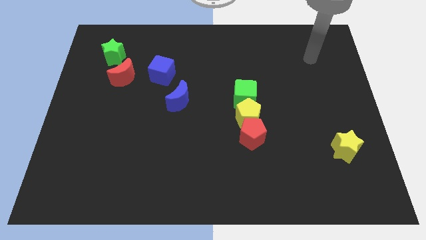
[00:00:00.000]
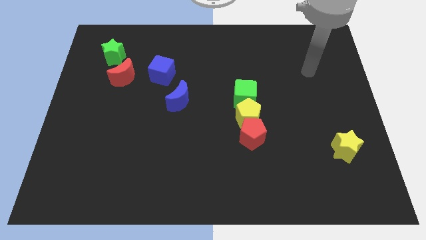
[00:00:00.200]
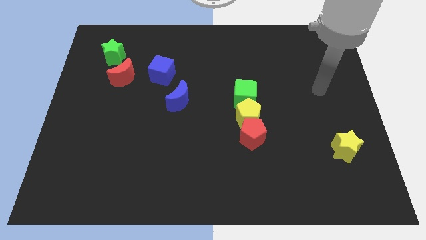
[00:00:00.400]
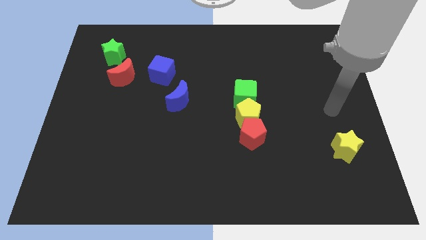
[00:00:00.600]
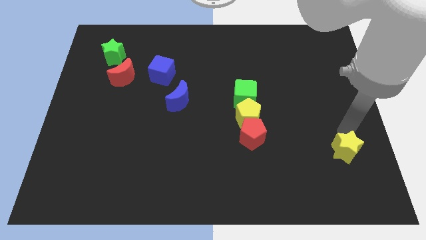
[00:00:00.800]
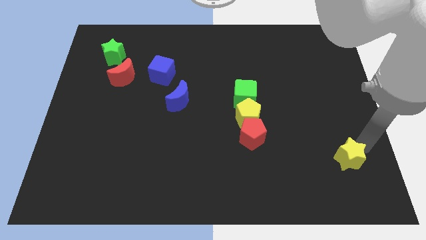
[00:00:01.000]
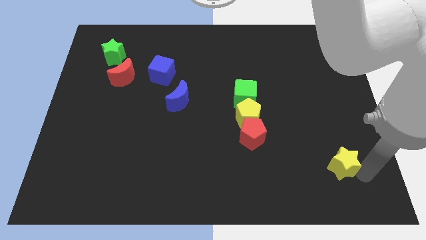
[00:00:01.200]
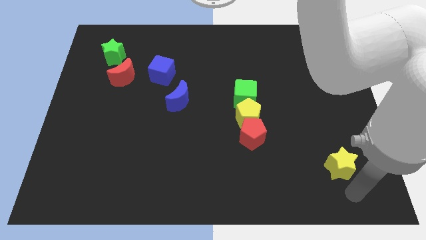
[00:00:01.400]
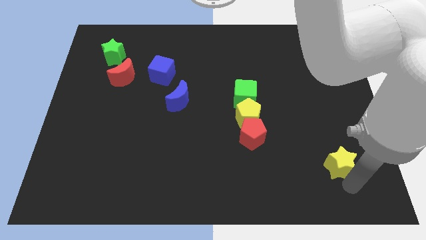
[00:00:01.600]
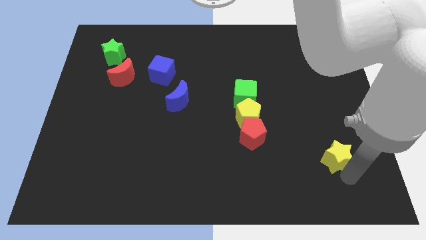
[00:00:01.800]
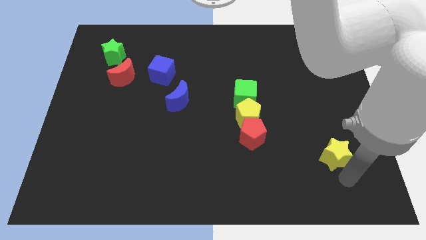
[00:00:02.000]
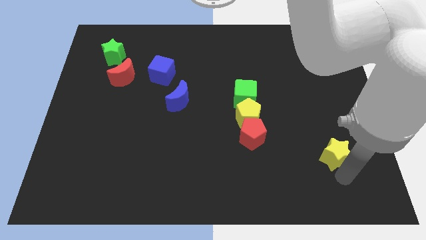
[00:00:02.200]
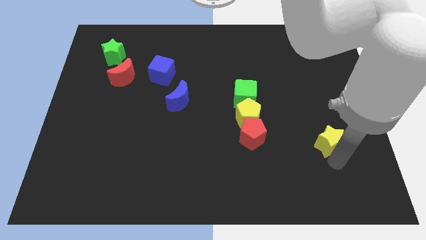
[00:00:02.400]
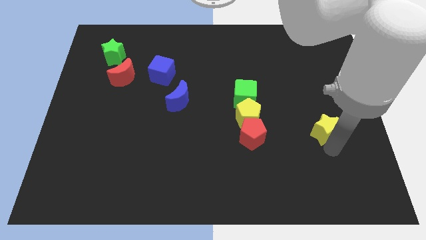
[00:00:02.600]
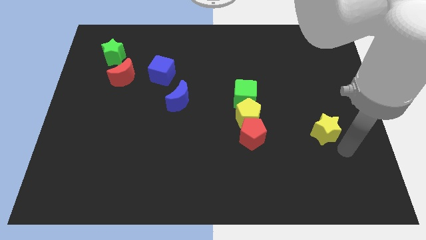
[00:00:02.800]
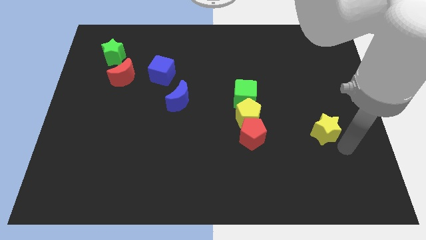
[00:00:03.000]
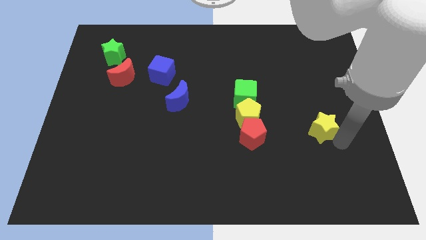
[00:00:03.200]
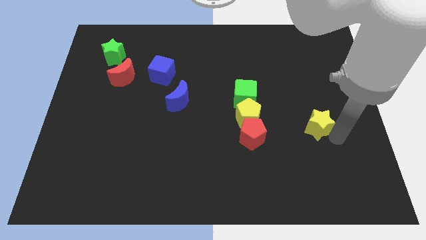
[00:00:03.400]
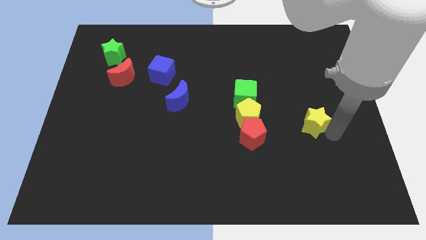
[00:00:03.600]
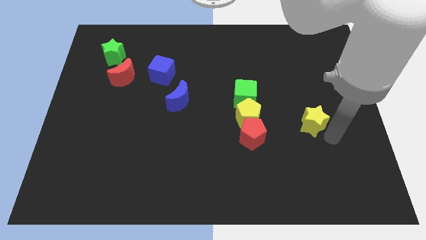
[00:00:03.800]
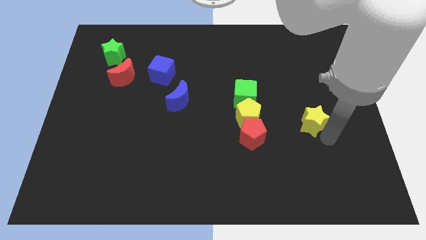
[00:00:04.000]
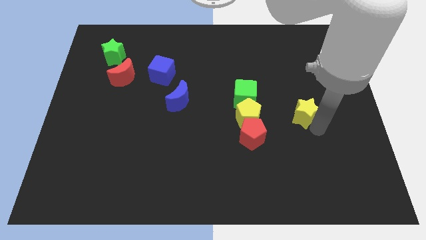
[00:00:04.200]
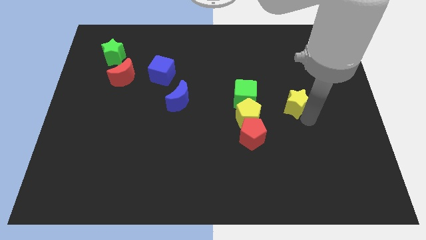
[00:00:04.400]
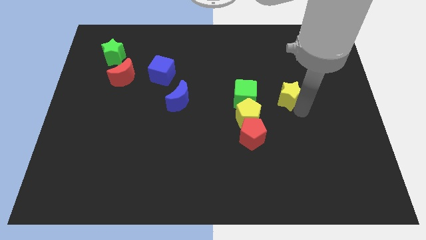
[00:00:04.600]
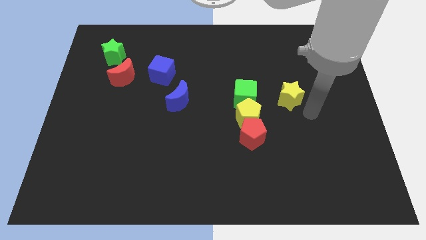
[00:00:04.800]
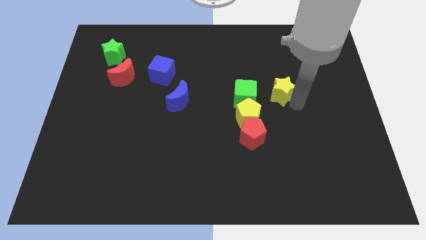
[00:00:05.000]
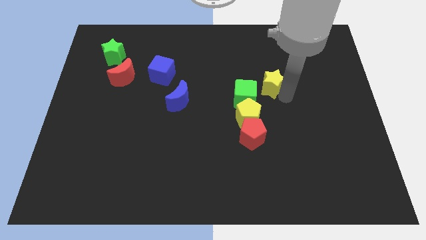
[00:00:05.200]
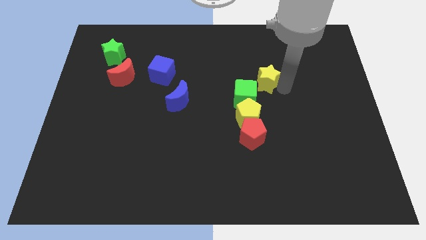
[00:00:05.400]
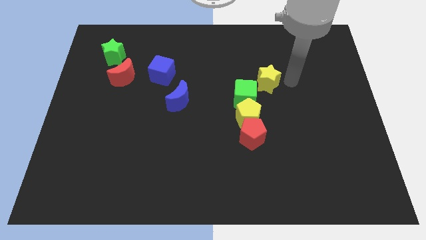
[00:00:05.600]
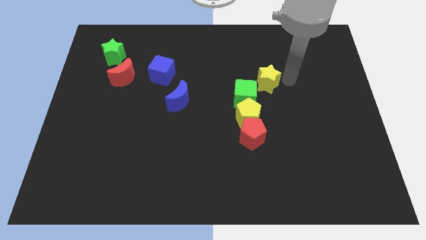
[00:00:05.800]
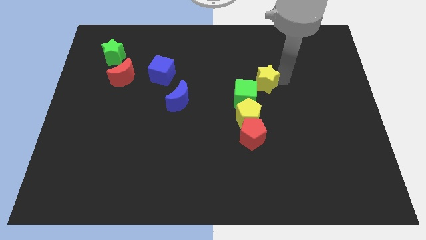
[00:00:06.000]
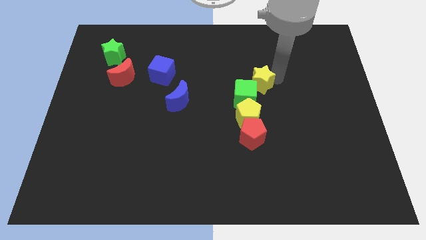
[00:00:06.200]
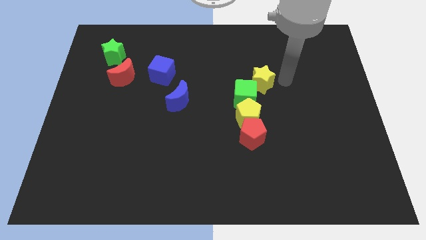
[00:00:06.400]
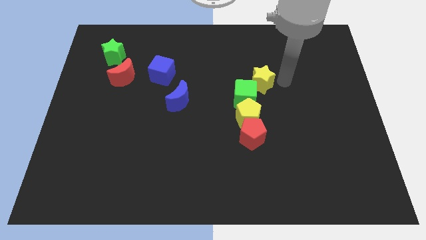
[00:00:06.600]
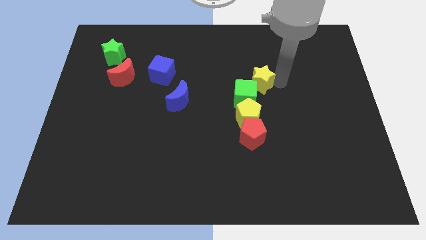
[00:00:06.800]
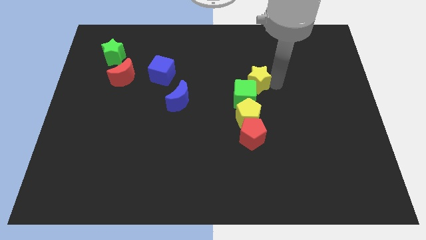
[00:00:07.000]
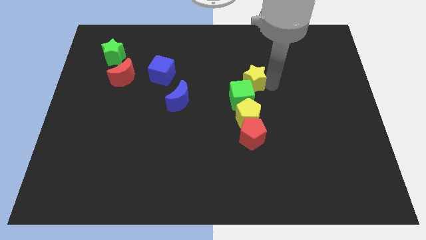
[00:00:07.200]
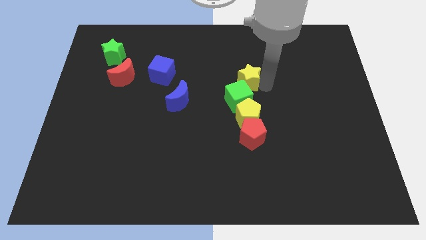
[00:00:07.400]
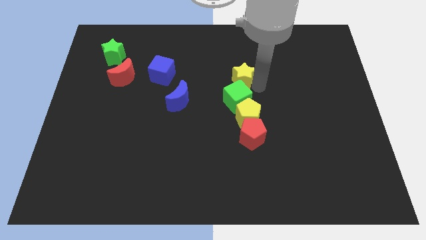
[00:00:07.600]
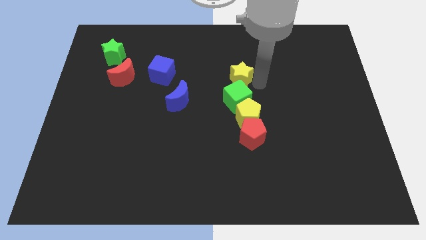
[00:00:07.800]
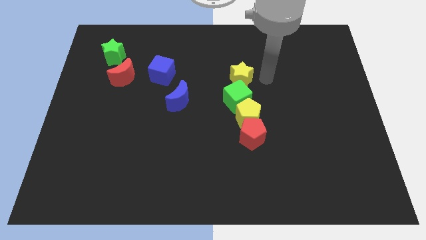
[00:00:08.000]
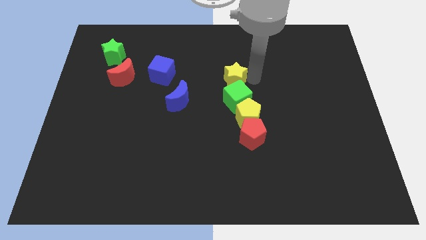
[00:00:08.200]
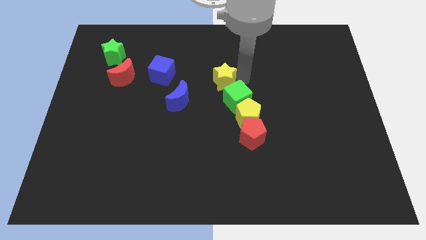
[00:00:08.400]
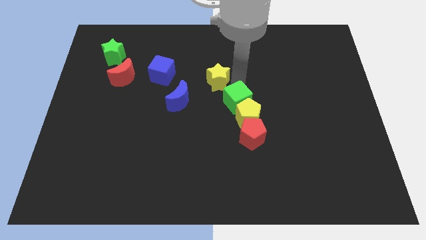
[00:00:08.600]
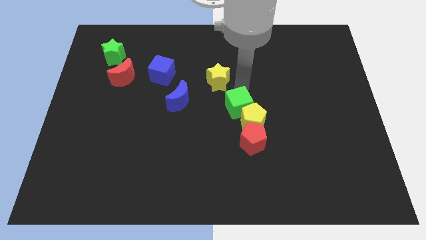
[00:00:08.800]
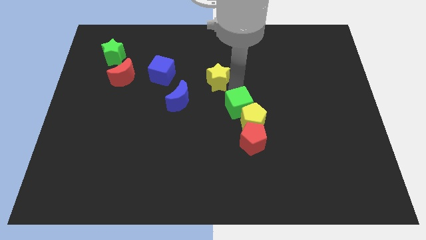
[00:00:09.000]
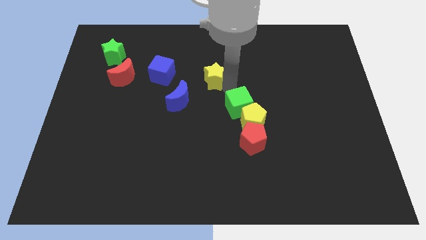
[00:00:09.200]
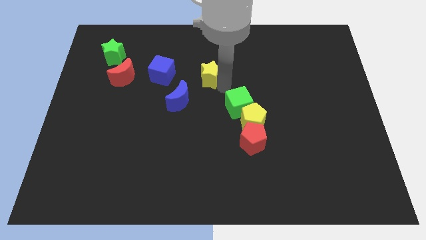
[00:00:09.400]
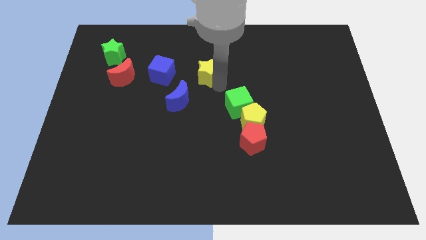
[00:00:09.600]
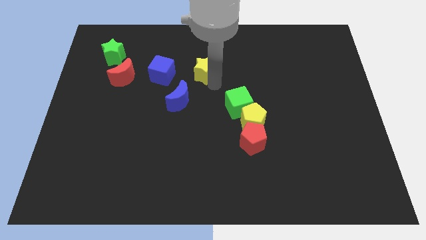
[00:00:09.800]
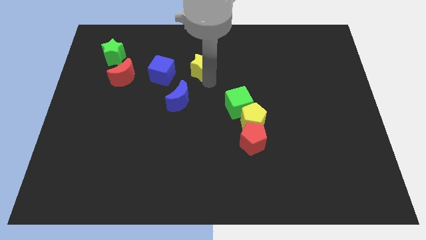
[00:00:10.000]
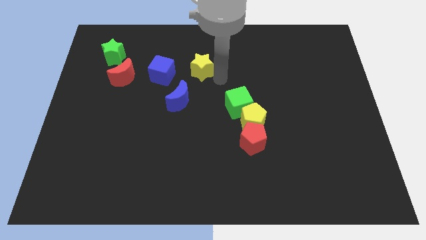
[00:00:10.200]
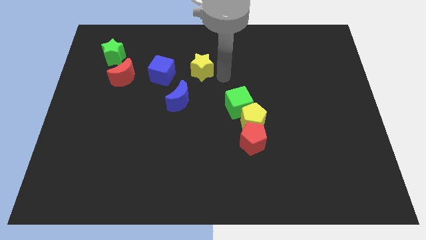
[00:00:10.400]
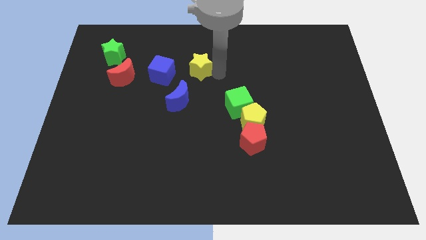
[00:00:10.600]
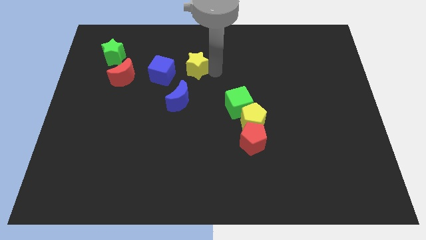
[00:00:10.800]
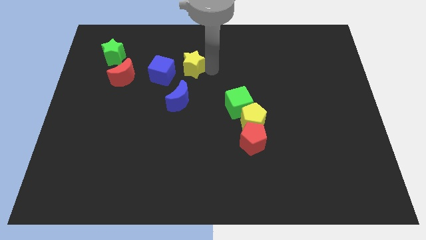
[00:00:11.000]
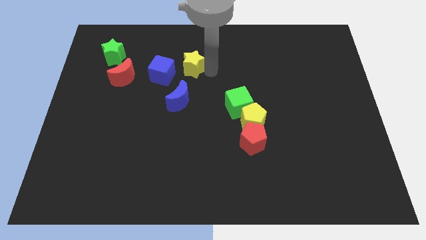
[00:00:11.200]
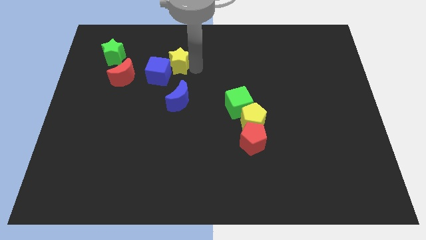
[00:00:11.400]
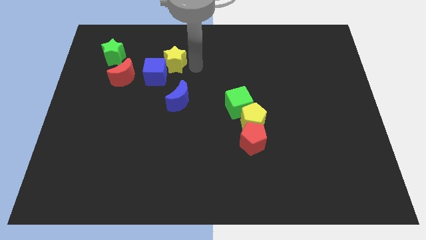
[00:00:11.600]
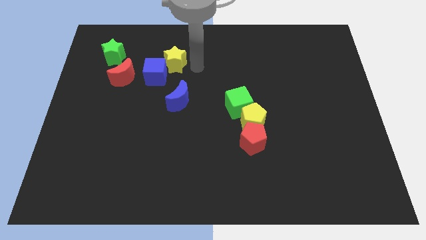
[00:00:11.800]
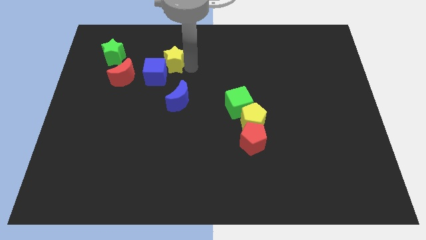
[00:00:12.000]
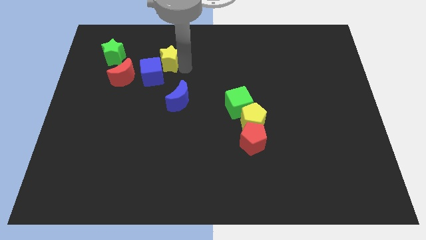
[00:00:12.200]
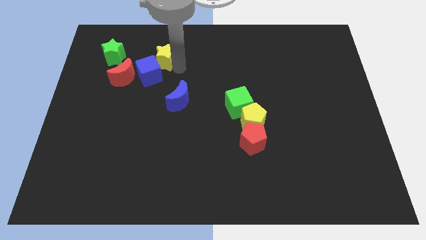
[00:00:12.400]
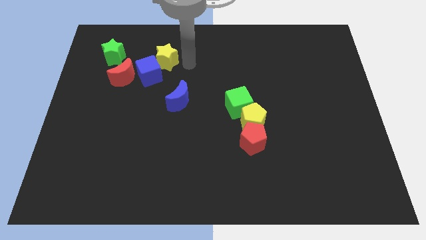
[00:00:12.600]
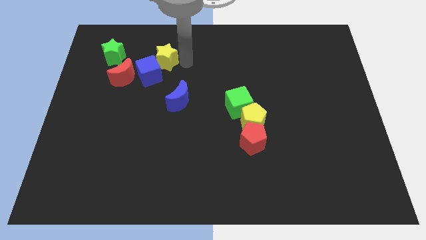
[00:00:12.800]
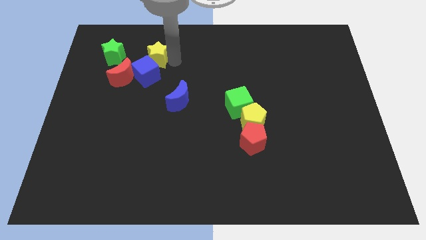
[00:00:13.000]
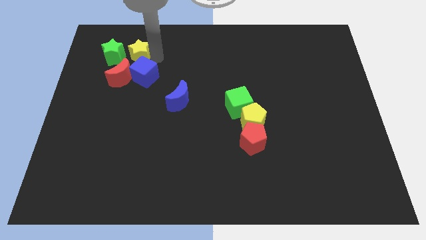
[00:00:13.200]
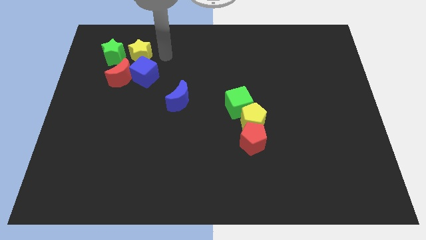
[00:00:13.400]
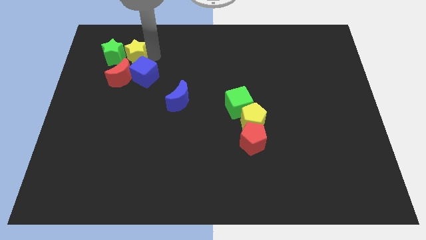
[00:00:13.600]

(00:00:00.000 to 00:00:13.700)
slide the yellow star close to the green star
